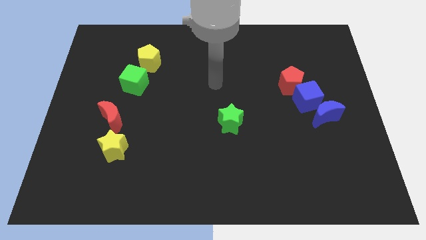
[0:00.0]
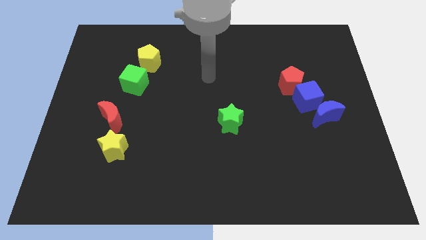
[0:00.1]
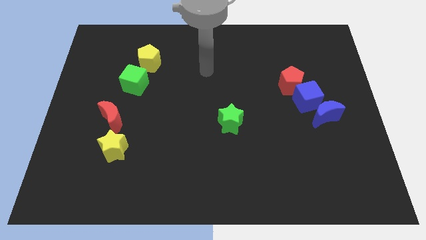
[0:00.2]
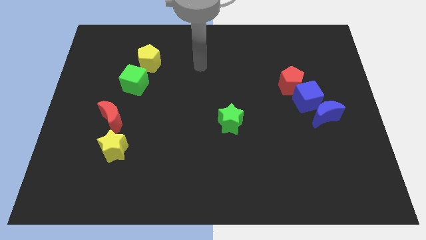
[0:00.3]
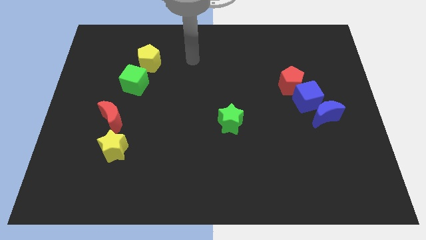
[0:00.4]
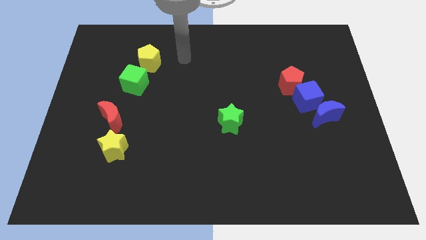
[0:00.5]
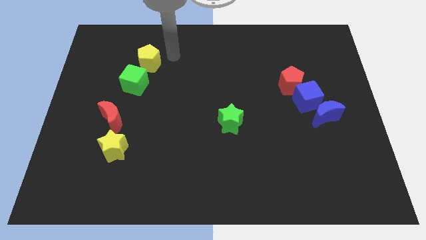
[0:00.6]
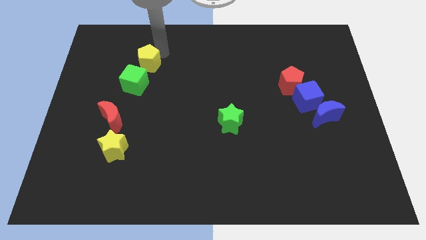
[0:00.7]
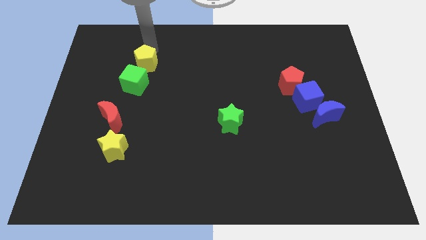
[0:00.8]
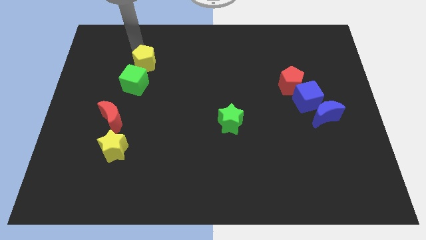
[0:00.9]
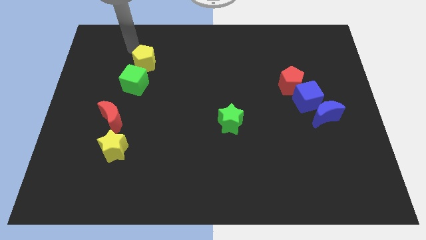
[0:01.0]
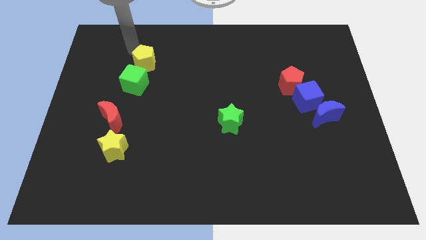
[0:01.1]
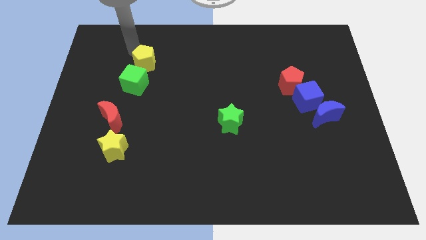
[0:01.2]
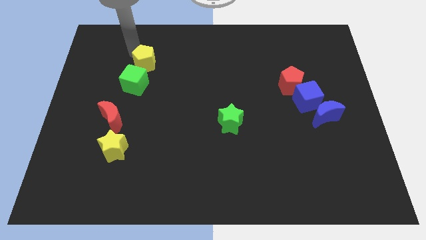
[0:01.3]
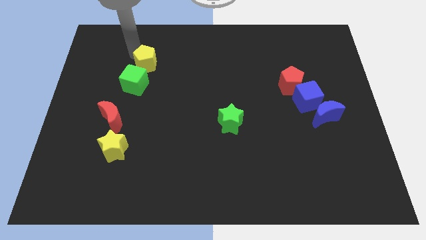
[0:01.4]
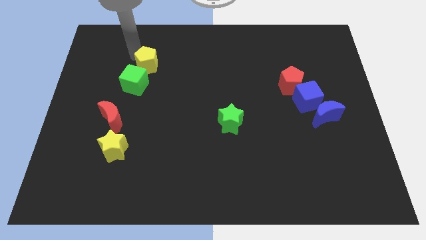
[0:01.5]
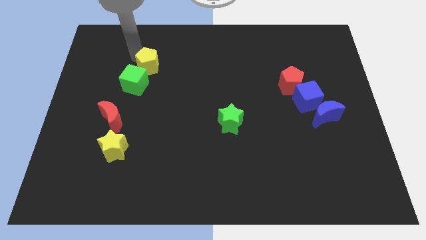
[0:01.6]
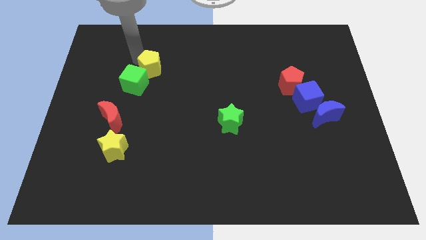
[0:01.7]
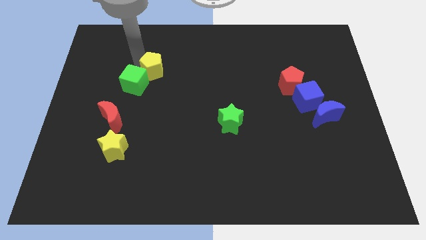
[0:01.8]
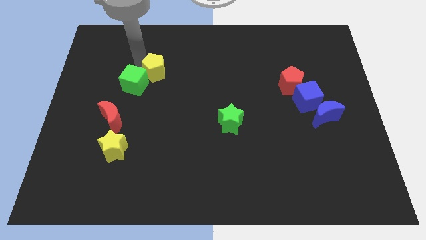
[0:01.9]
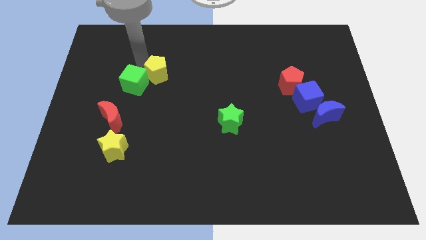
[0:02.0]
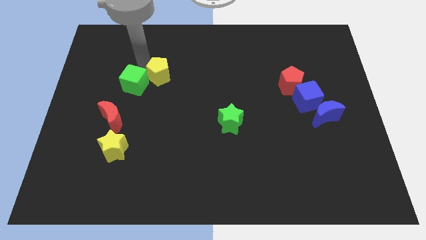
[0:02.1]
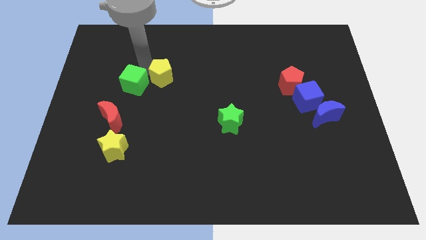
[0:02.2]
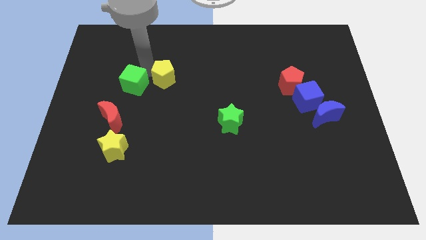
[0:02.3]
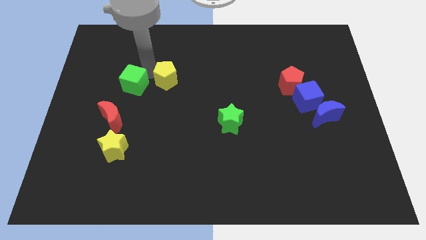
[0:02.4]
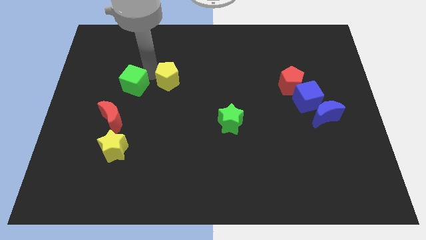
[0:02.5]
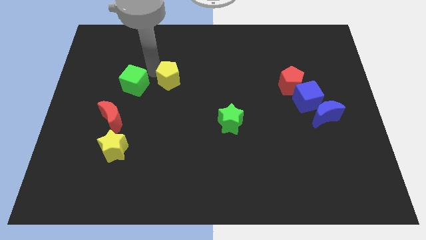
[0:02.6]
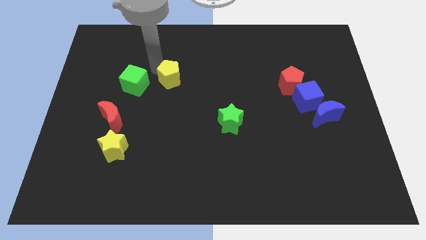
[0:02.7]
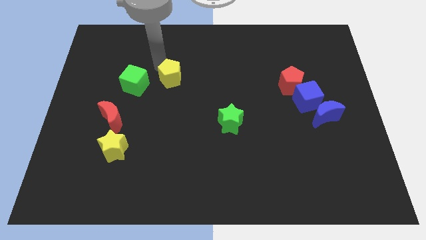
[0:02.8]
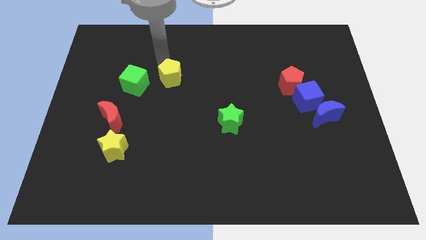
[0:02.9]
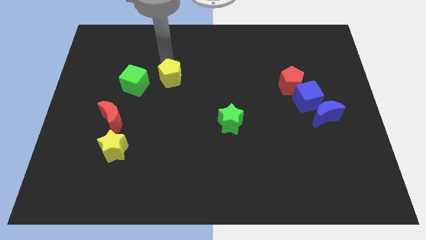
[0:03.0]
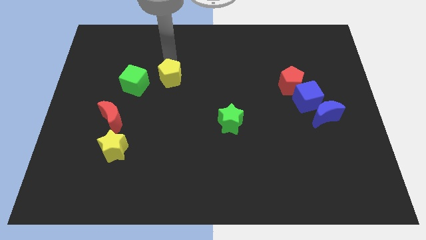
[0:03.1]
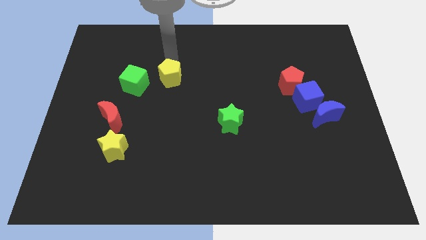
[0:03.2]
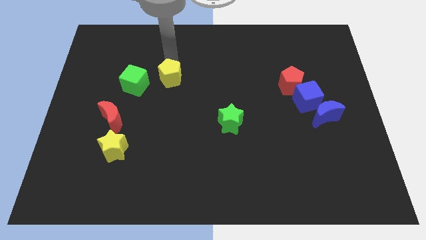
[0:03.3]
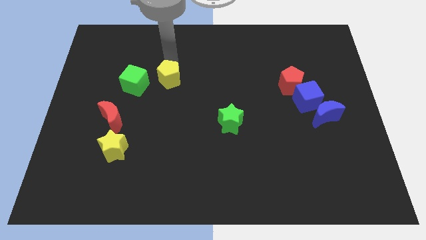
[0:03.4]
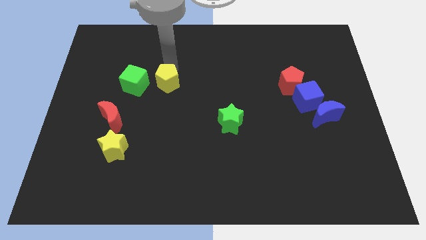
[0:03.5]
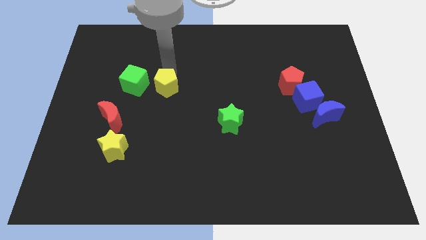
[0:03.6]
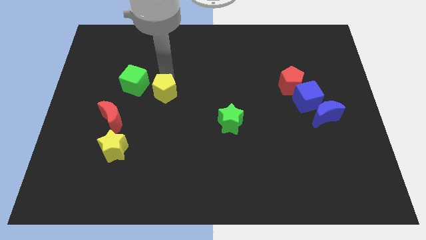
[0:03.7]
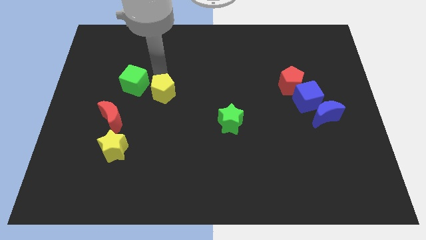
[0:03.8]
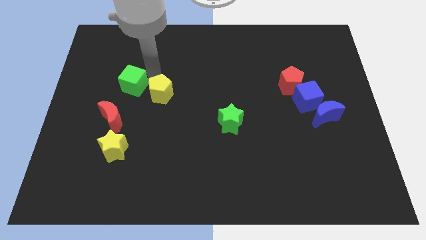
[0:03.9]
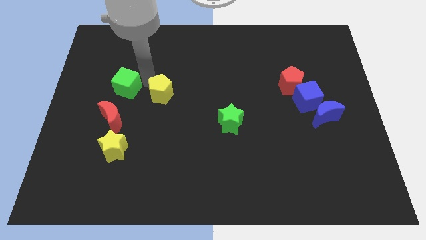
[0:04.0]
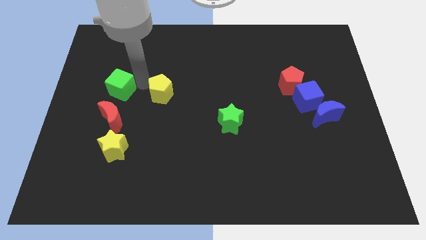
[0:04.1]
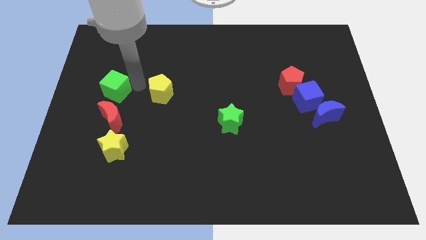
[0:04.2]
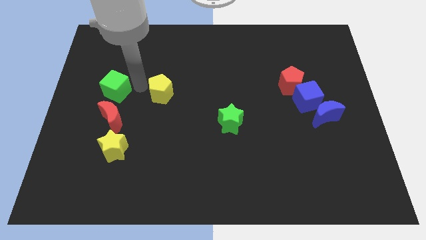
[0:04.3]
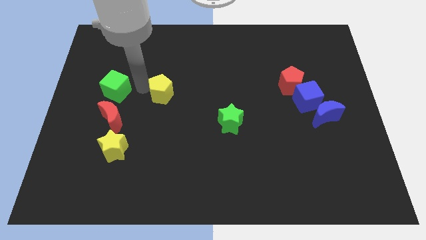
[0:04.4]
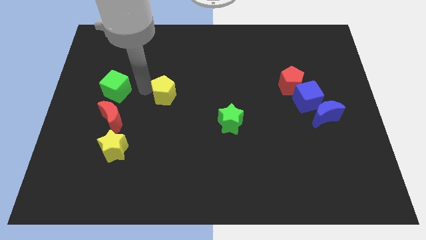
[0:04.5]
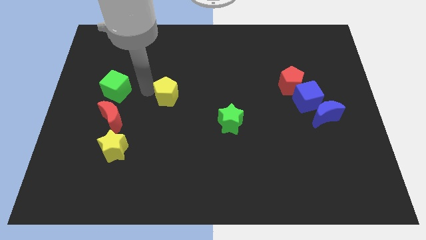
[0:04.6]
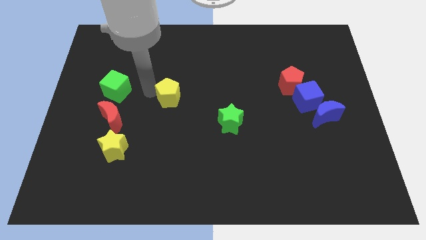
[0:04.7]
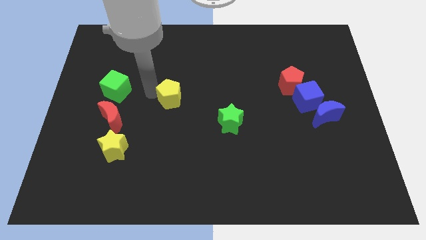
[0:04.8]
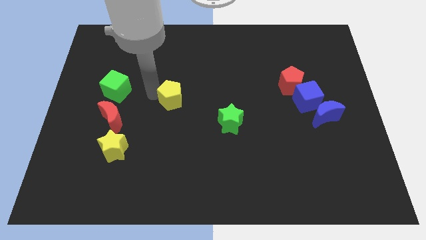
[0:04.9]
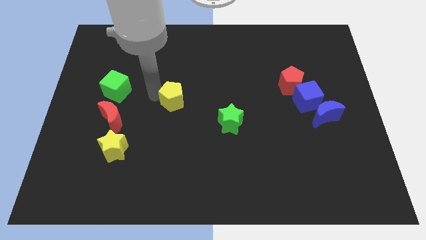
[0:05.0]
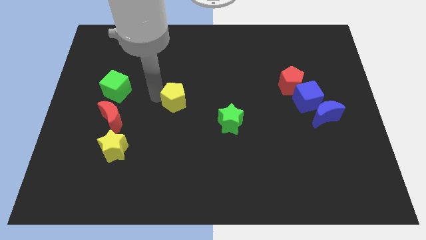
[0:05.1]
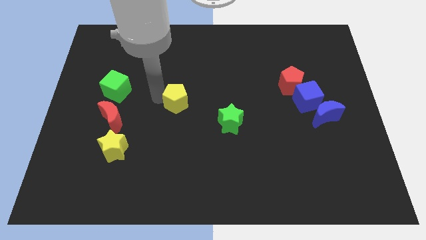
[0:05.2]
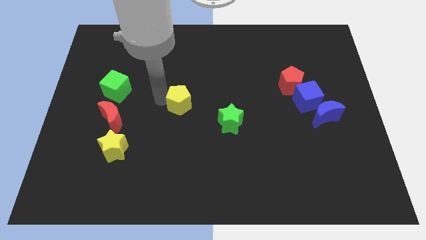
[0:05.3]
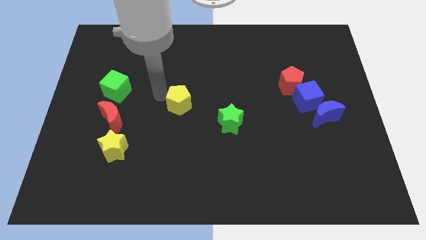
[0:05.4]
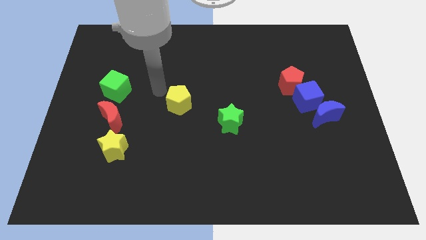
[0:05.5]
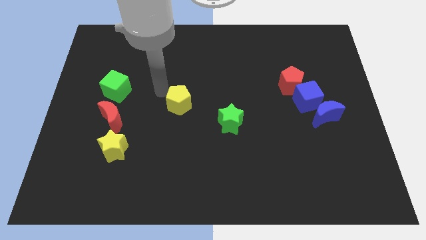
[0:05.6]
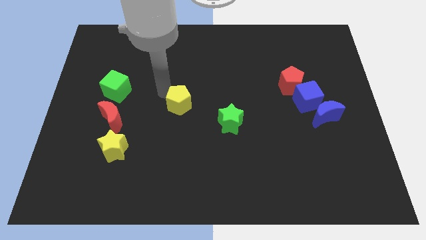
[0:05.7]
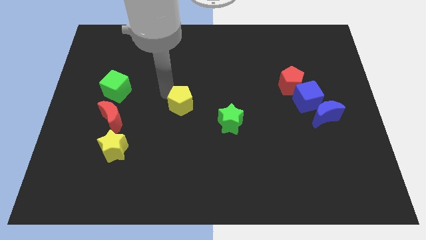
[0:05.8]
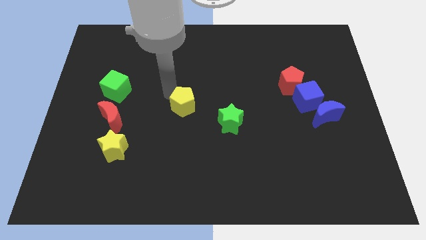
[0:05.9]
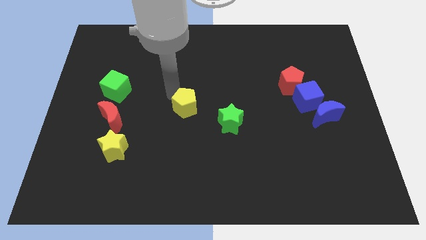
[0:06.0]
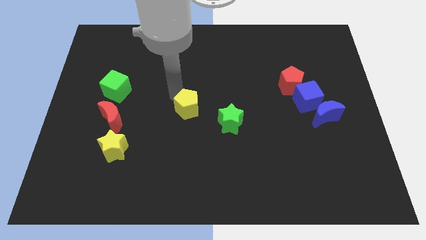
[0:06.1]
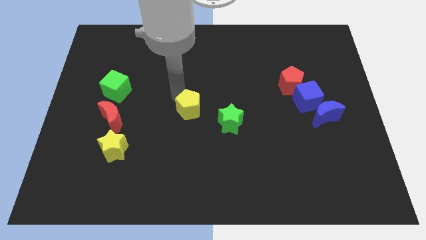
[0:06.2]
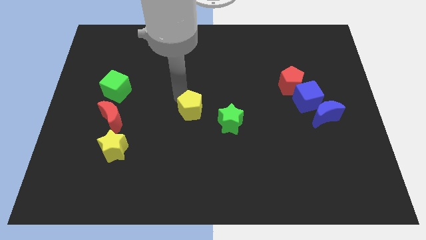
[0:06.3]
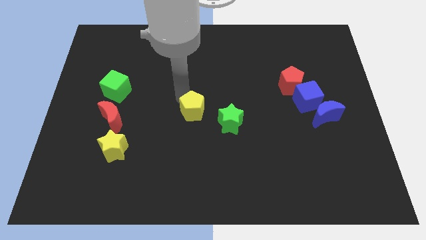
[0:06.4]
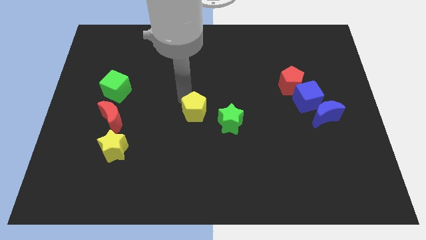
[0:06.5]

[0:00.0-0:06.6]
push the yellow pentagon downwards and right diagonally

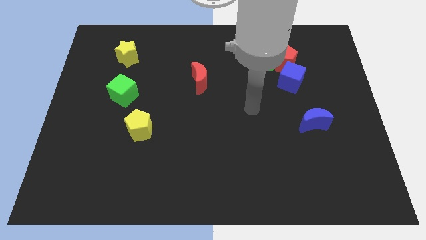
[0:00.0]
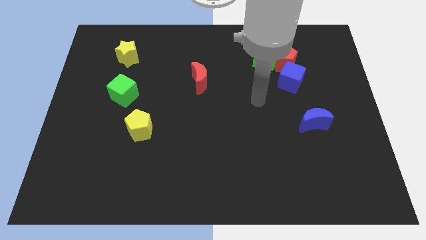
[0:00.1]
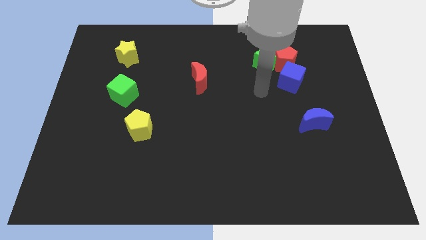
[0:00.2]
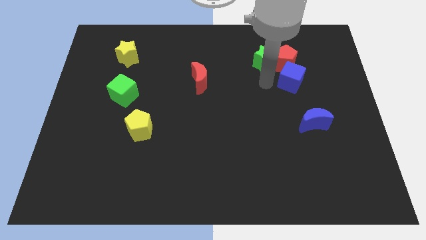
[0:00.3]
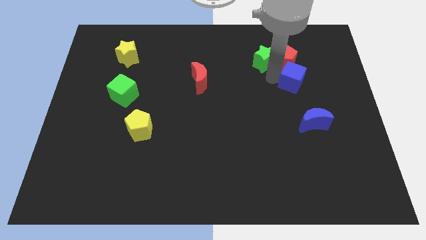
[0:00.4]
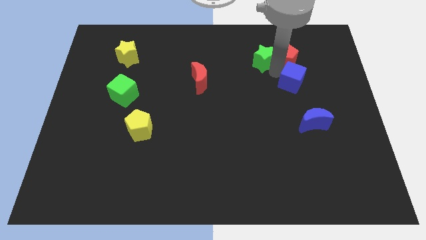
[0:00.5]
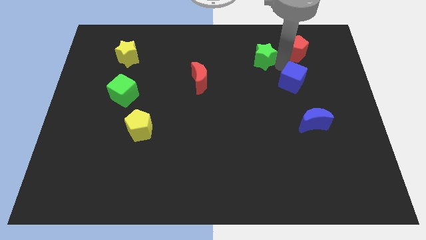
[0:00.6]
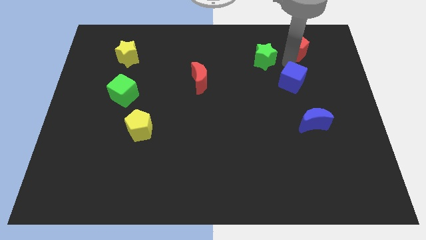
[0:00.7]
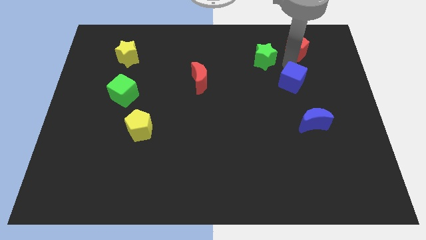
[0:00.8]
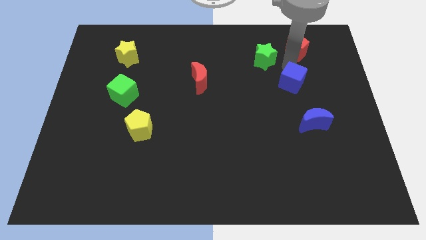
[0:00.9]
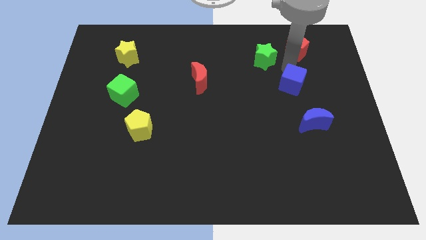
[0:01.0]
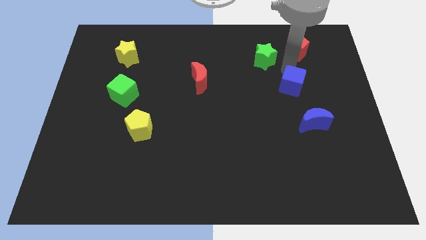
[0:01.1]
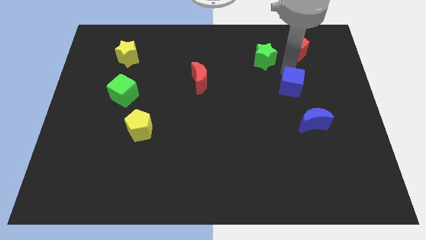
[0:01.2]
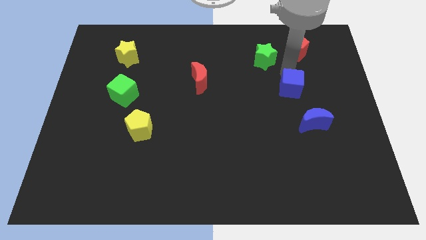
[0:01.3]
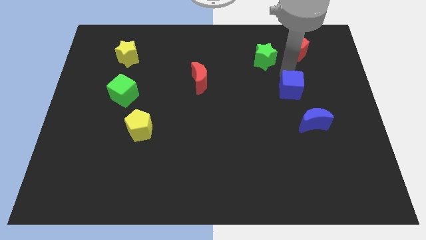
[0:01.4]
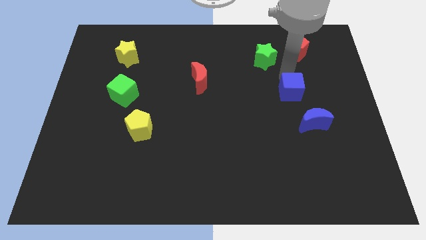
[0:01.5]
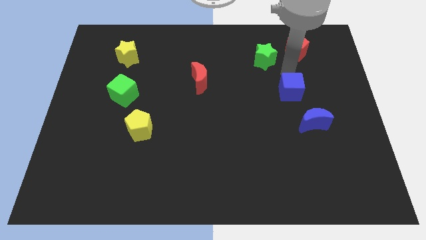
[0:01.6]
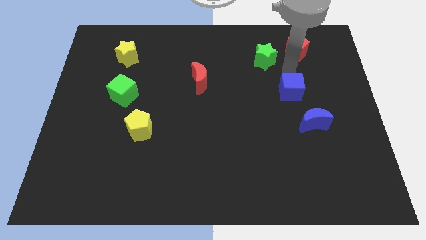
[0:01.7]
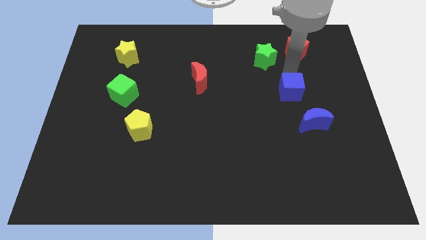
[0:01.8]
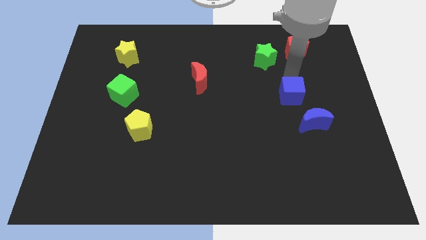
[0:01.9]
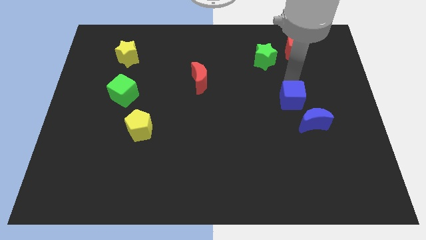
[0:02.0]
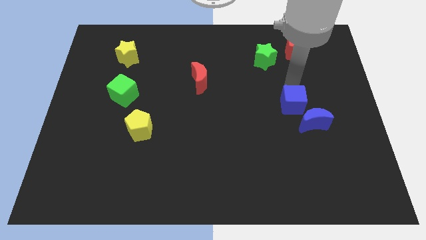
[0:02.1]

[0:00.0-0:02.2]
slightly move the blue cube downwards
